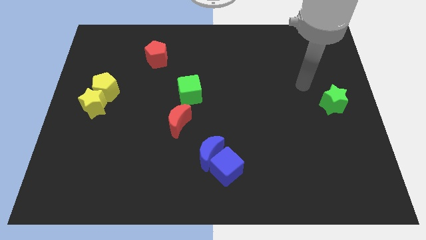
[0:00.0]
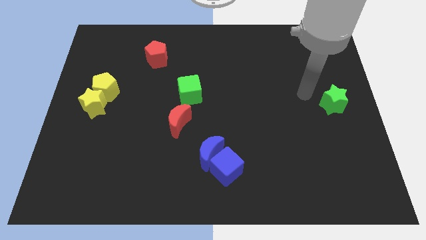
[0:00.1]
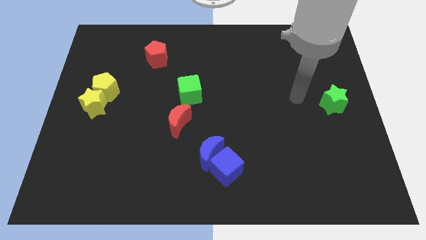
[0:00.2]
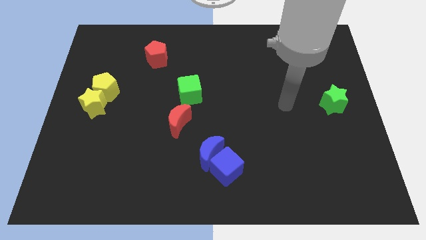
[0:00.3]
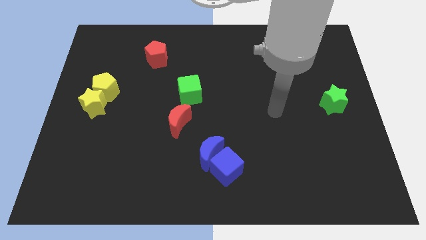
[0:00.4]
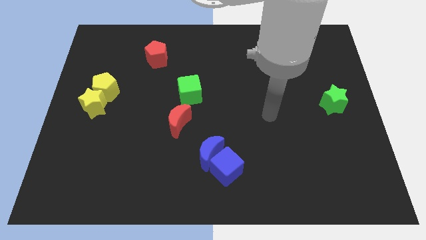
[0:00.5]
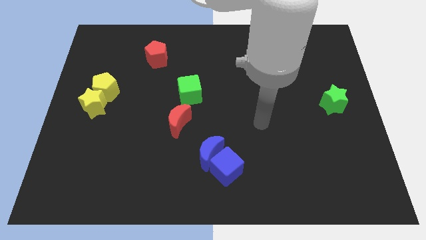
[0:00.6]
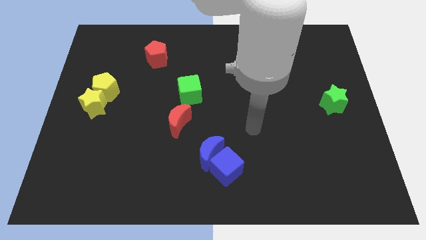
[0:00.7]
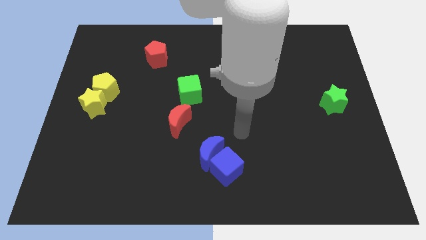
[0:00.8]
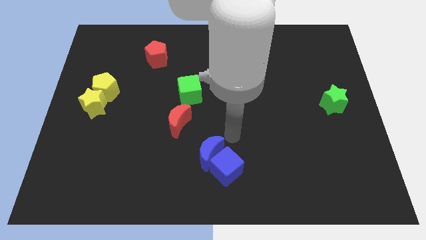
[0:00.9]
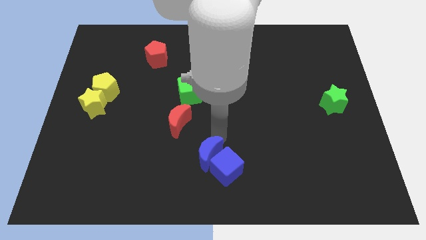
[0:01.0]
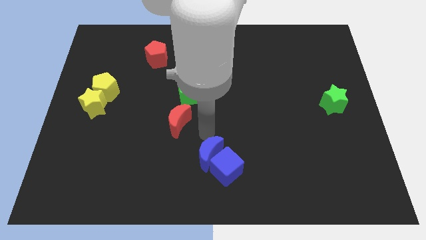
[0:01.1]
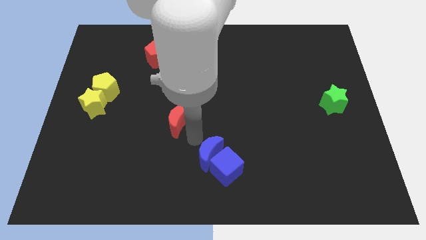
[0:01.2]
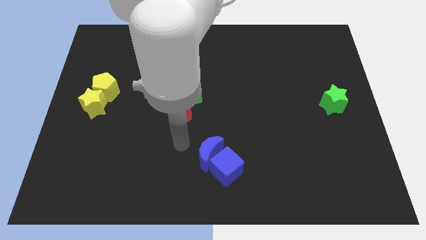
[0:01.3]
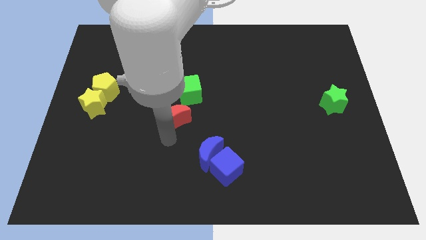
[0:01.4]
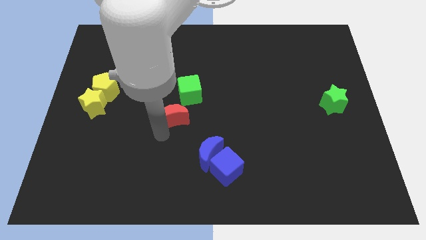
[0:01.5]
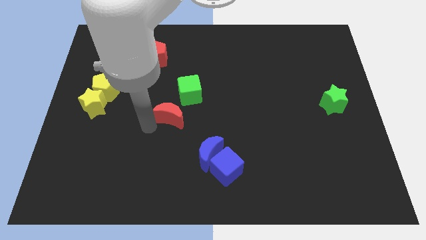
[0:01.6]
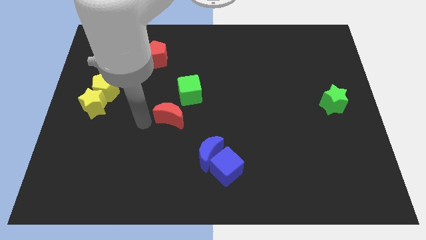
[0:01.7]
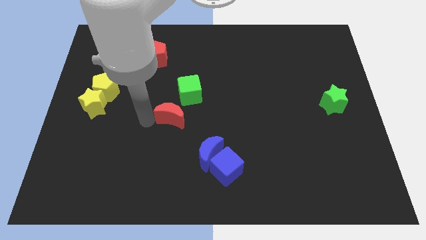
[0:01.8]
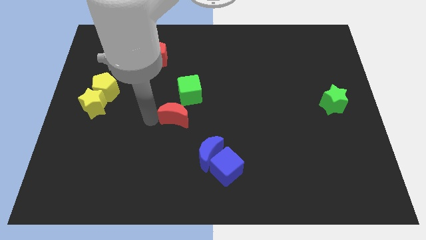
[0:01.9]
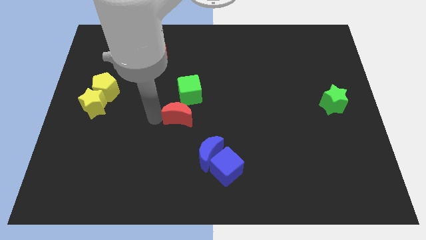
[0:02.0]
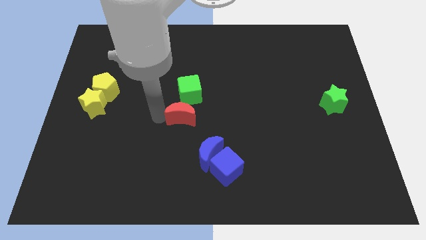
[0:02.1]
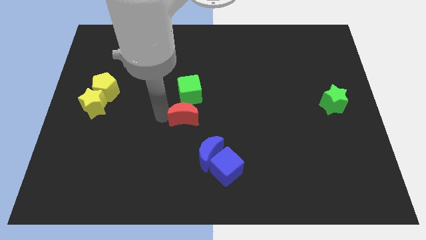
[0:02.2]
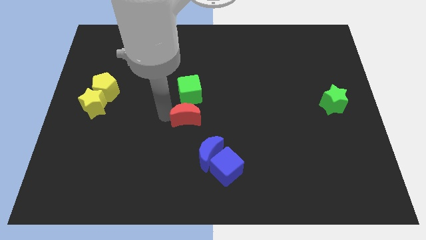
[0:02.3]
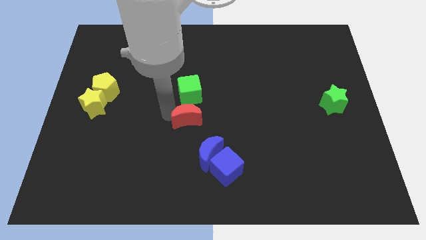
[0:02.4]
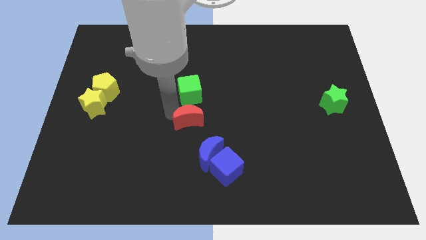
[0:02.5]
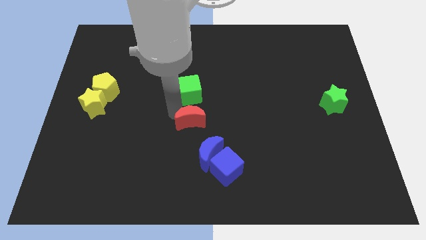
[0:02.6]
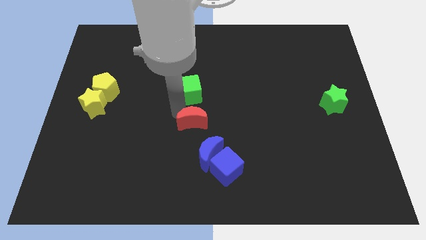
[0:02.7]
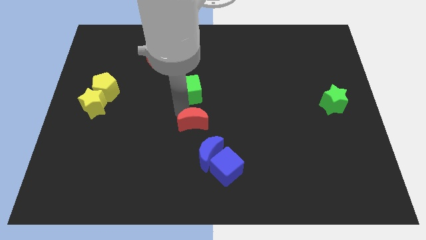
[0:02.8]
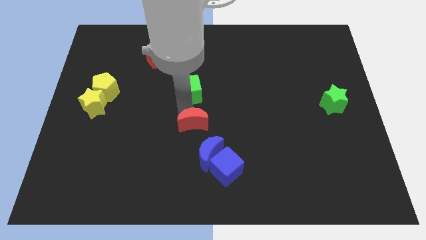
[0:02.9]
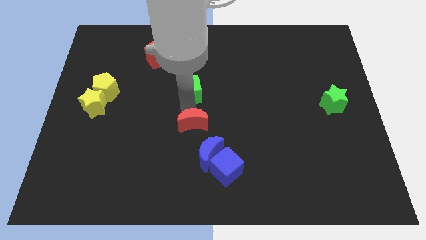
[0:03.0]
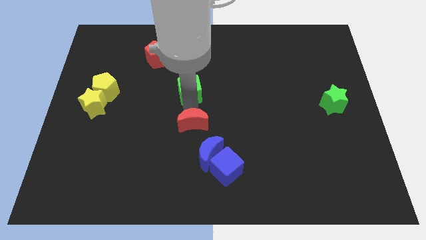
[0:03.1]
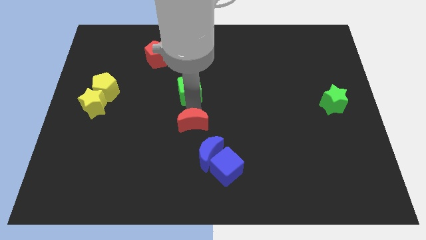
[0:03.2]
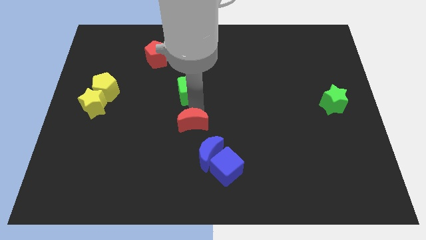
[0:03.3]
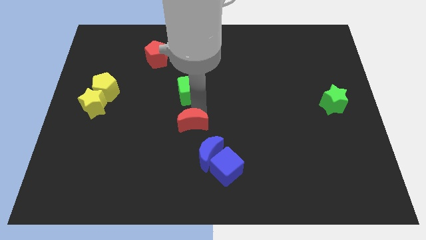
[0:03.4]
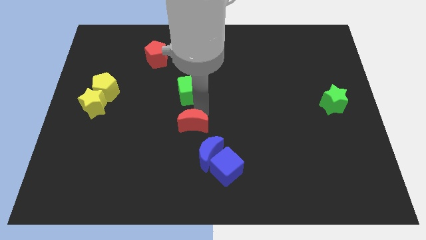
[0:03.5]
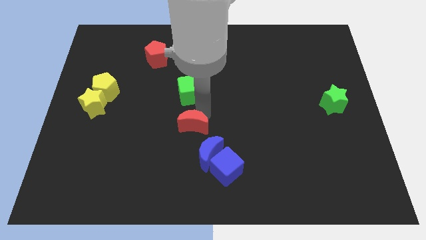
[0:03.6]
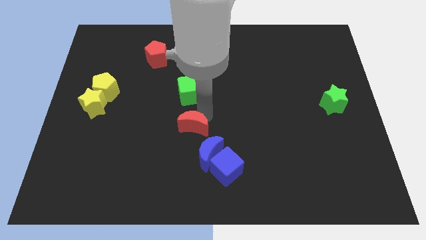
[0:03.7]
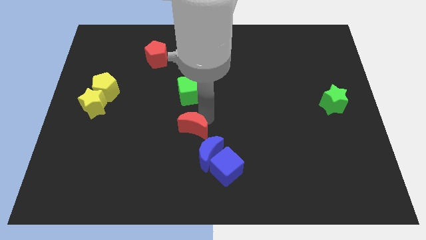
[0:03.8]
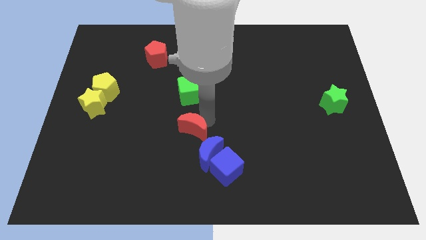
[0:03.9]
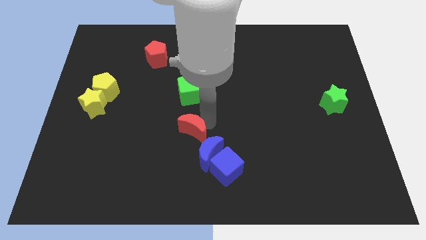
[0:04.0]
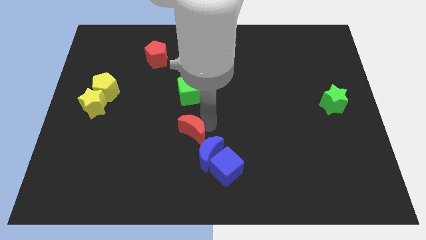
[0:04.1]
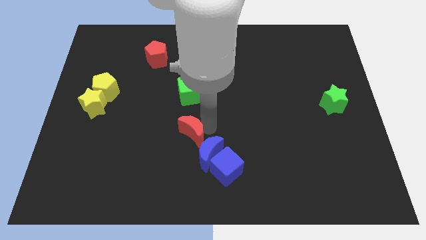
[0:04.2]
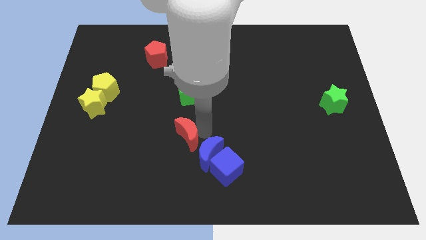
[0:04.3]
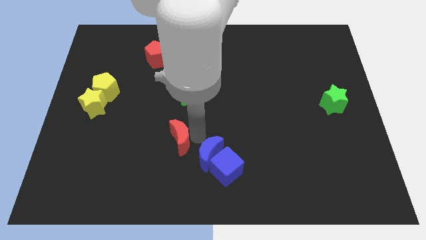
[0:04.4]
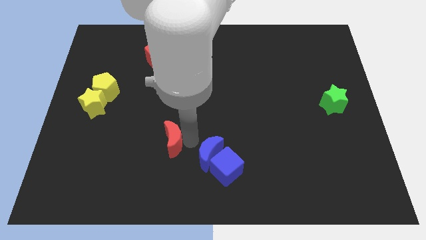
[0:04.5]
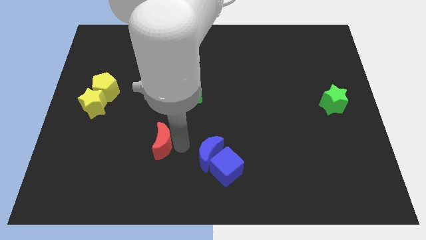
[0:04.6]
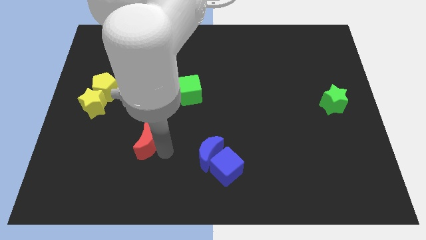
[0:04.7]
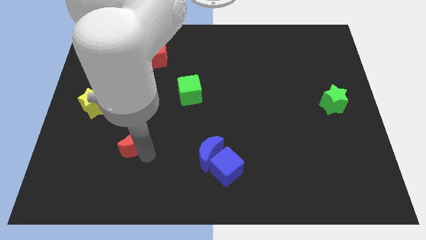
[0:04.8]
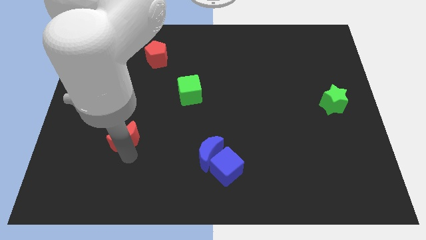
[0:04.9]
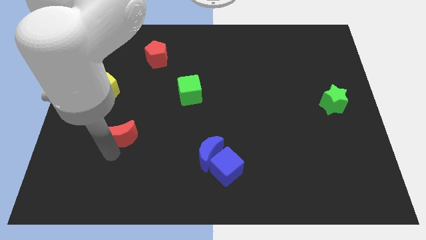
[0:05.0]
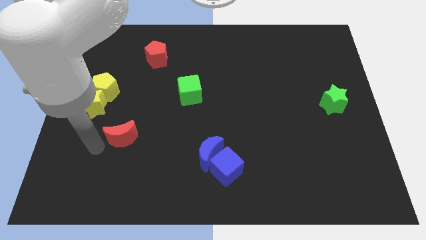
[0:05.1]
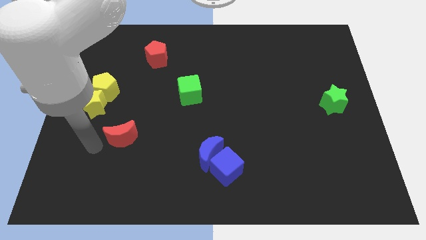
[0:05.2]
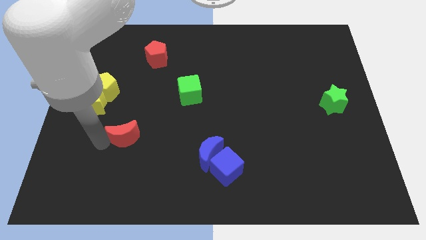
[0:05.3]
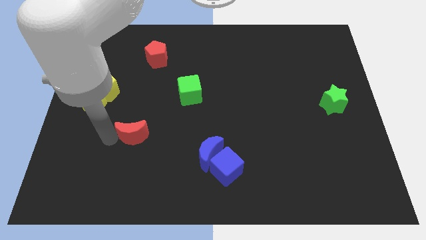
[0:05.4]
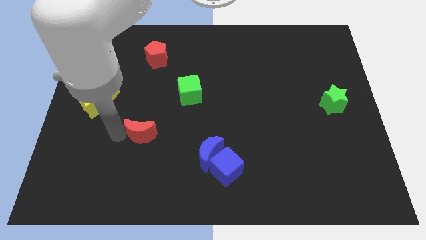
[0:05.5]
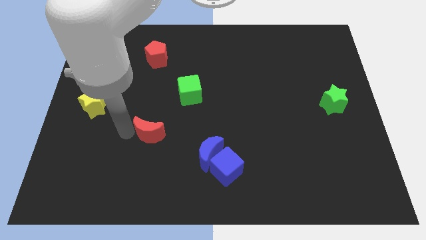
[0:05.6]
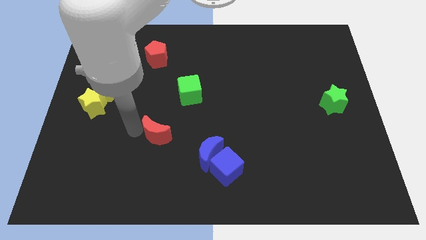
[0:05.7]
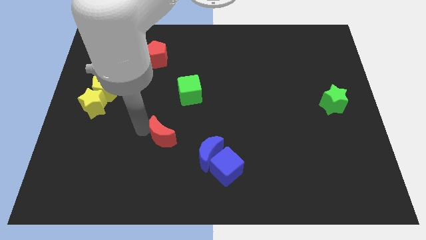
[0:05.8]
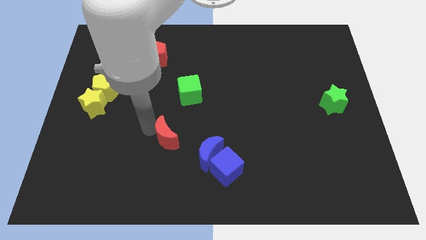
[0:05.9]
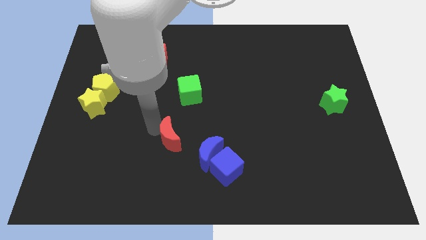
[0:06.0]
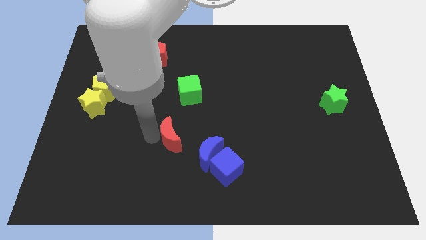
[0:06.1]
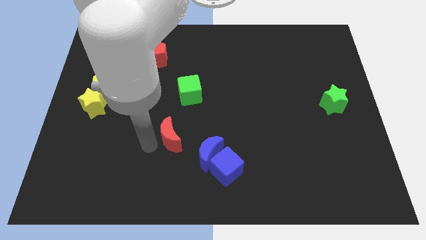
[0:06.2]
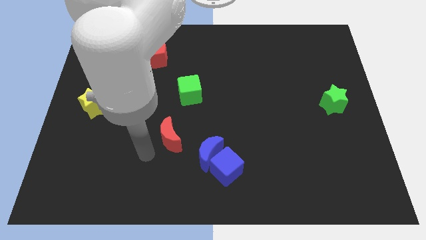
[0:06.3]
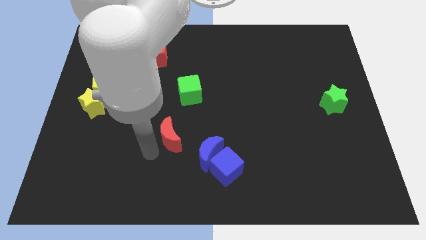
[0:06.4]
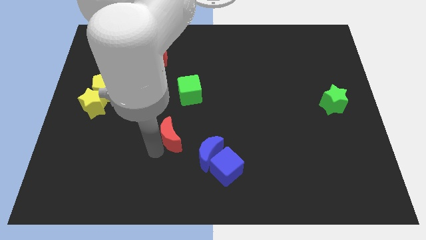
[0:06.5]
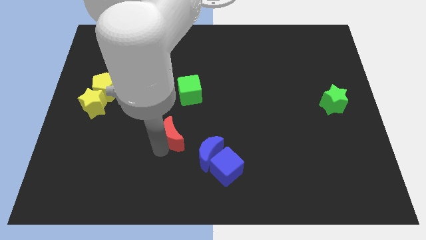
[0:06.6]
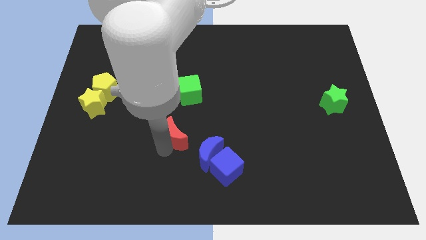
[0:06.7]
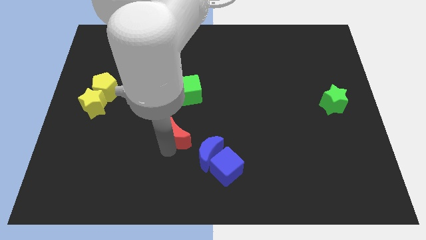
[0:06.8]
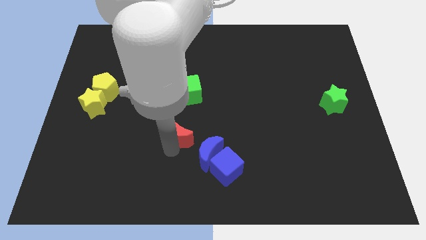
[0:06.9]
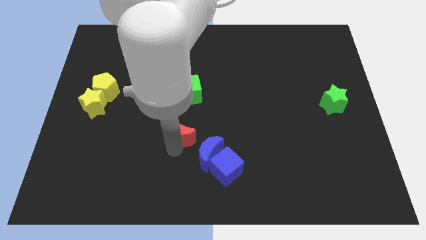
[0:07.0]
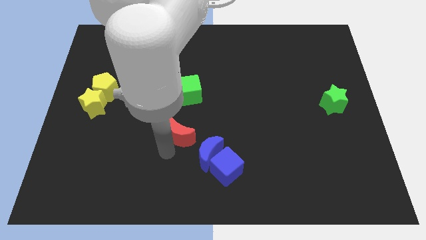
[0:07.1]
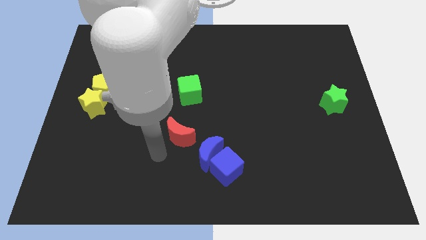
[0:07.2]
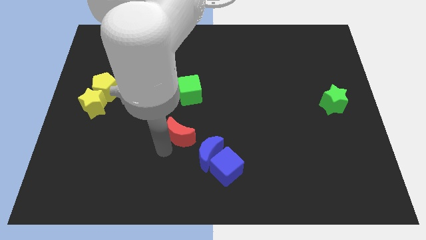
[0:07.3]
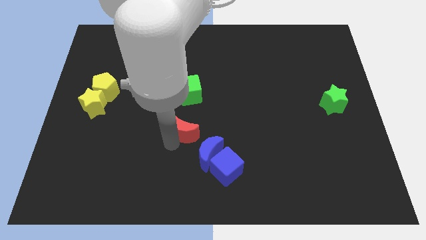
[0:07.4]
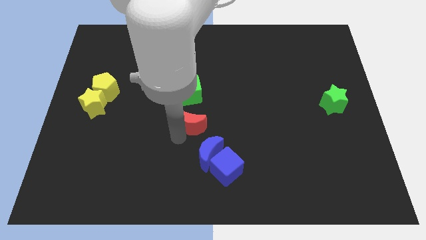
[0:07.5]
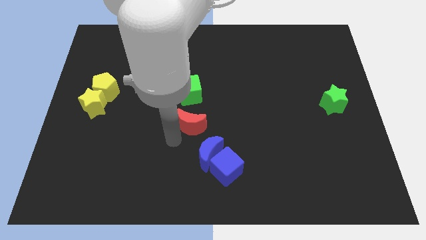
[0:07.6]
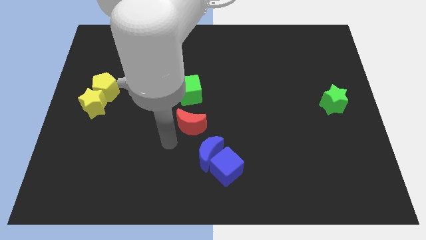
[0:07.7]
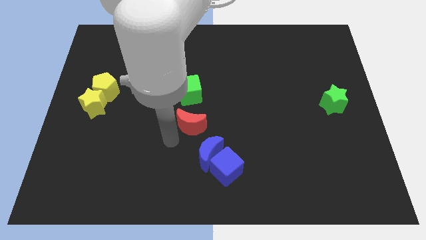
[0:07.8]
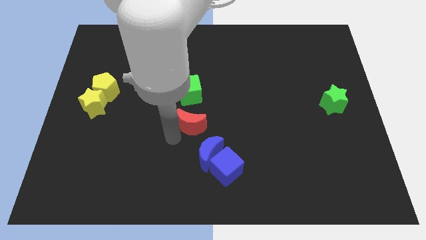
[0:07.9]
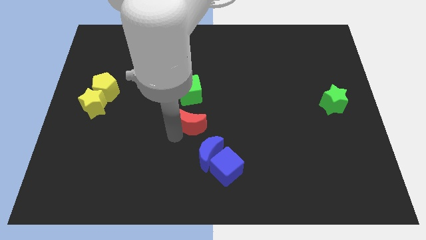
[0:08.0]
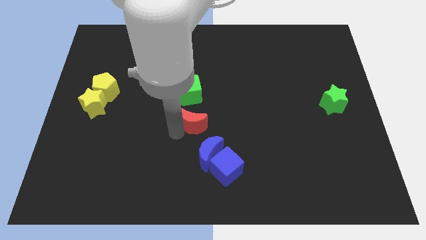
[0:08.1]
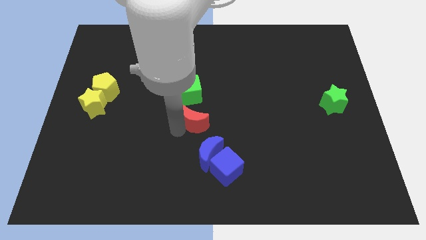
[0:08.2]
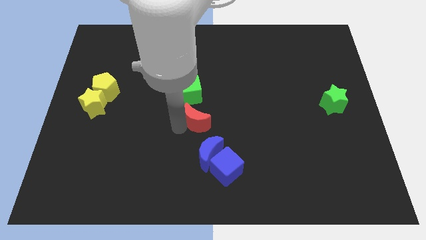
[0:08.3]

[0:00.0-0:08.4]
put the red moon to the bottom right of the green cube
